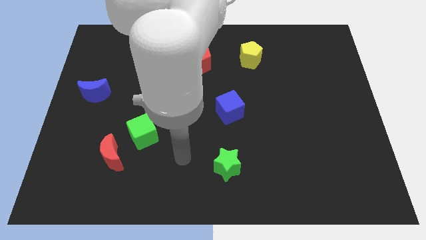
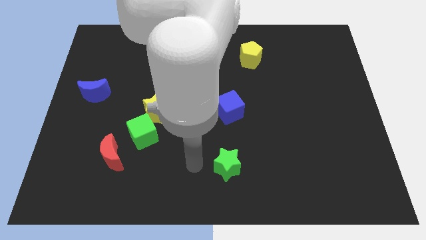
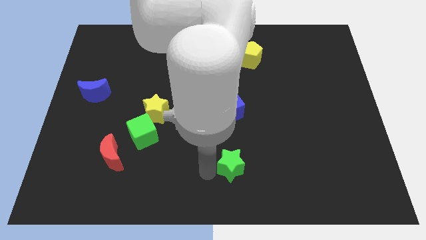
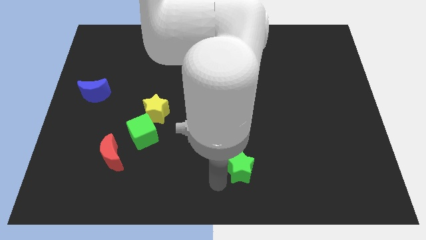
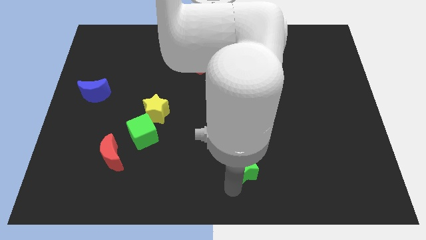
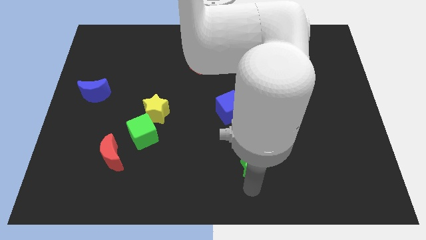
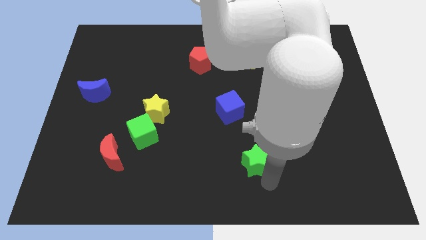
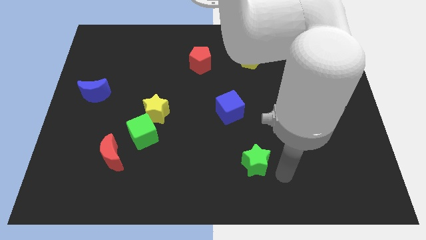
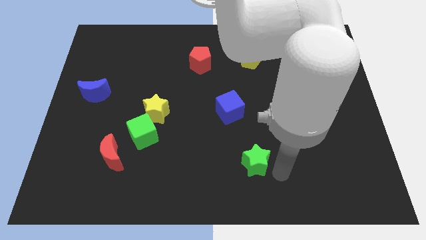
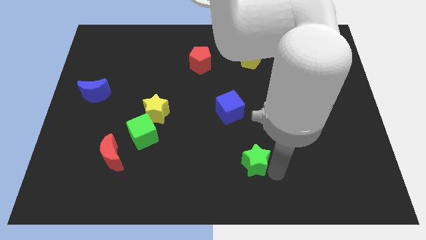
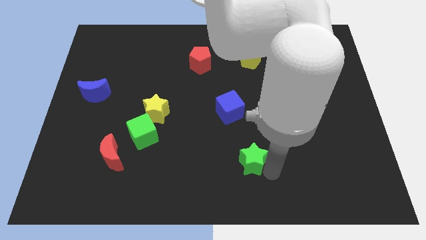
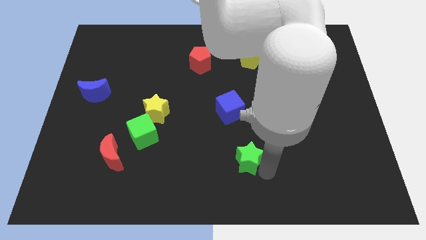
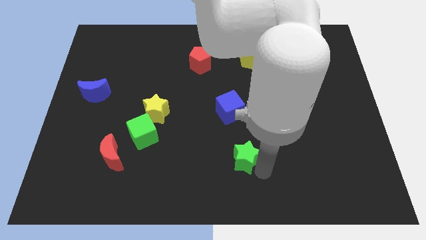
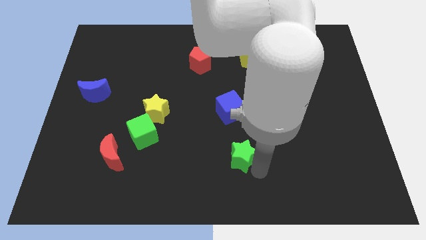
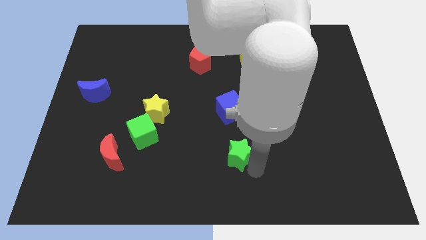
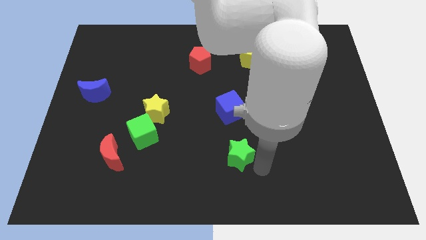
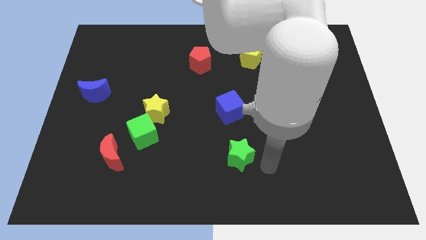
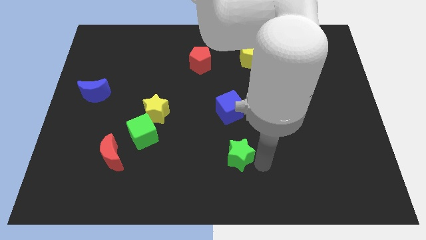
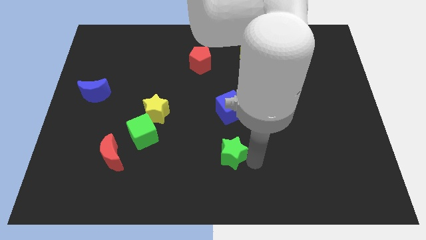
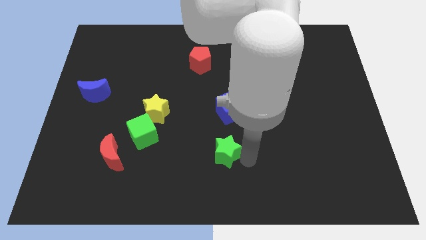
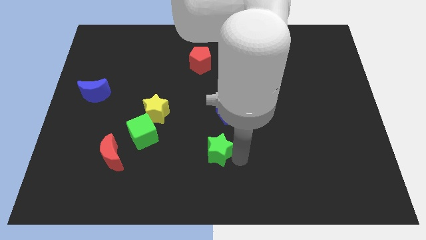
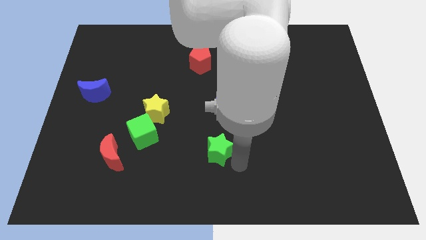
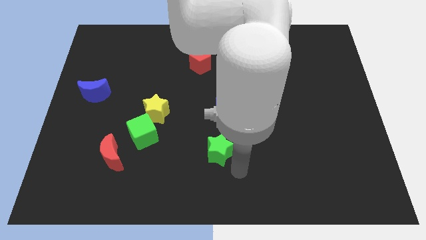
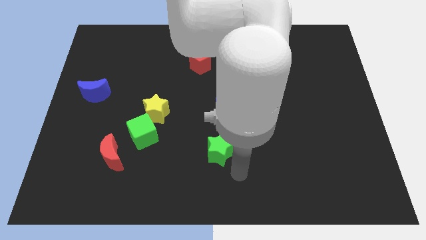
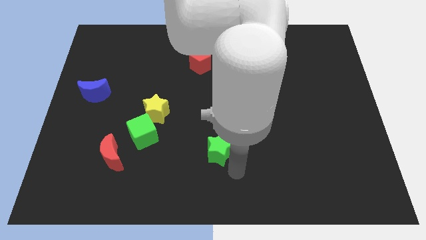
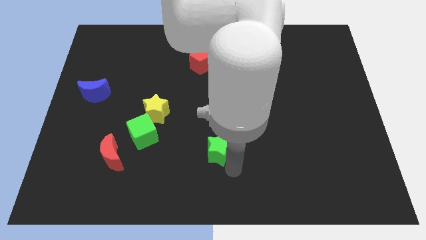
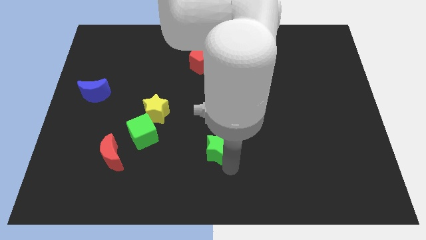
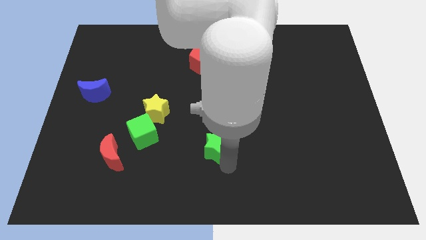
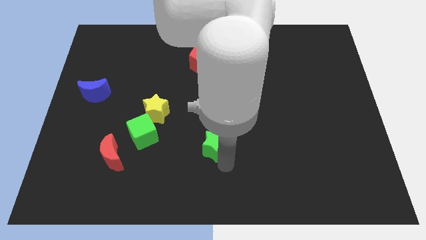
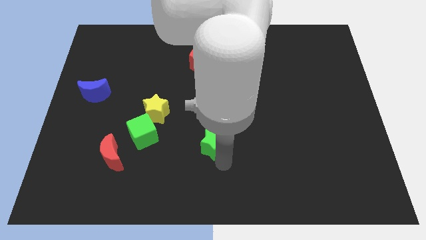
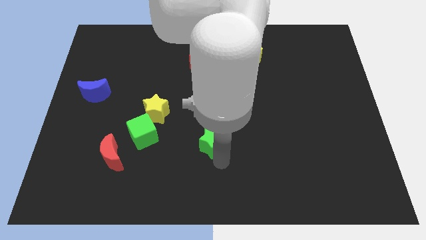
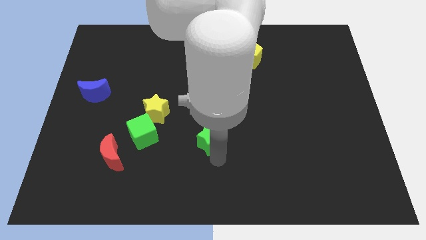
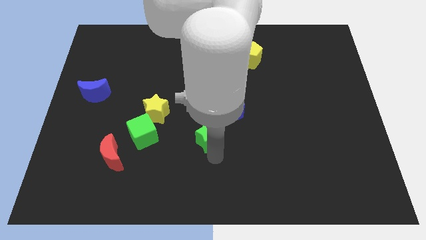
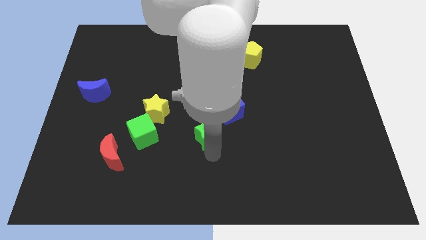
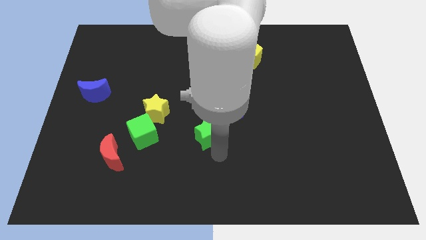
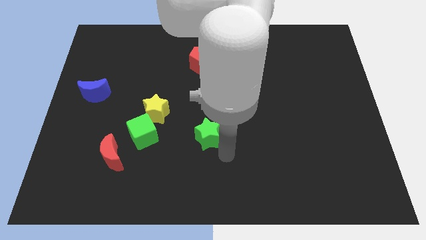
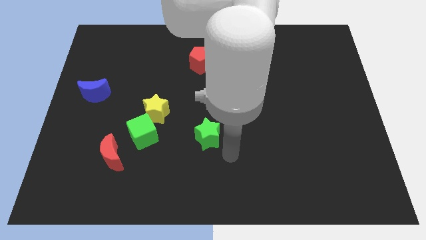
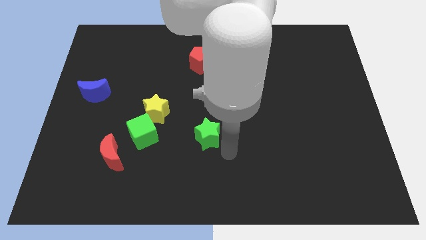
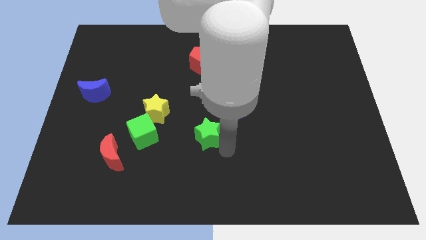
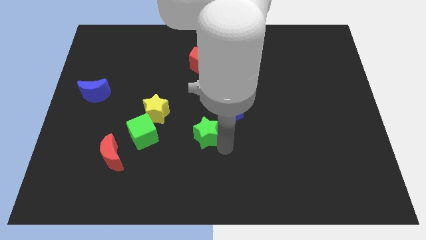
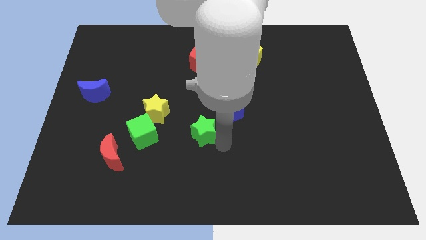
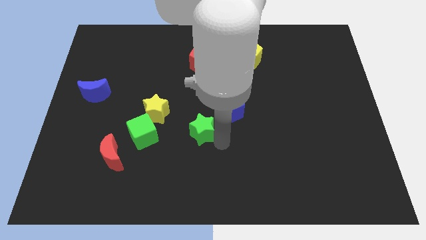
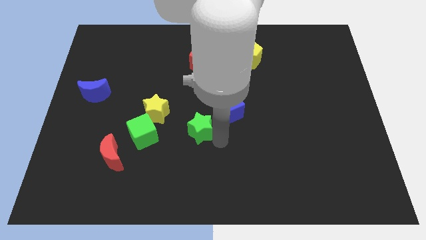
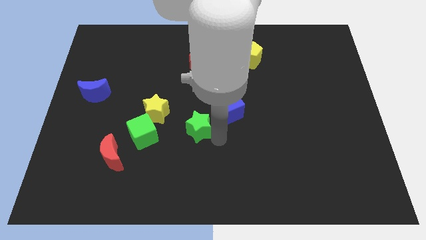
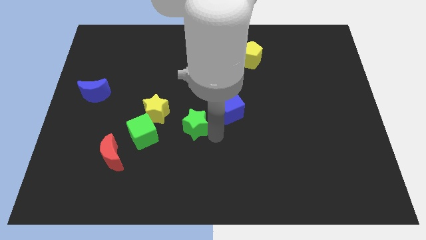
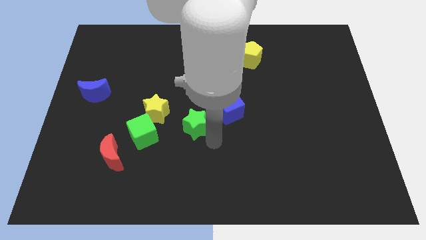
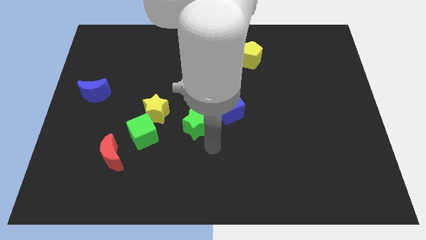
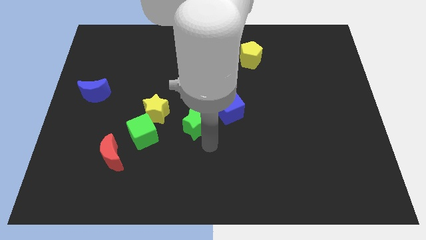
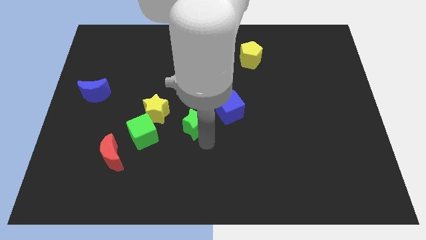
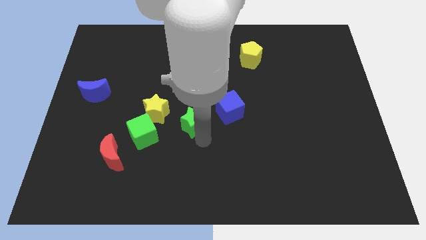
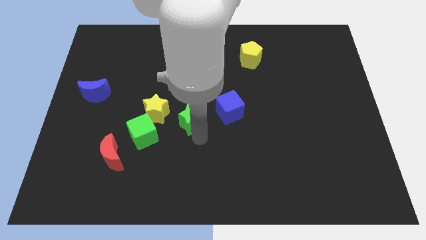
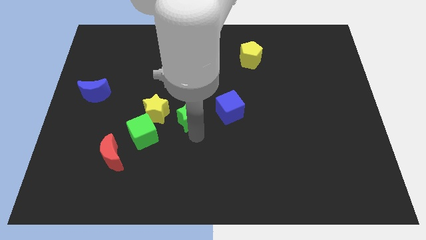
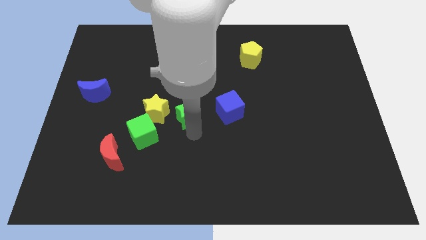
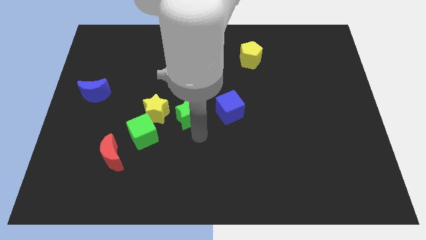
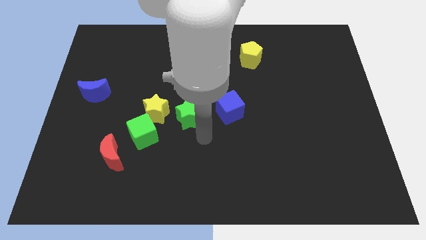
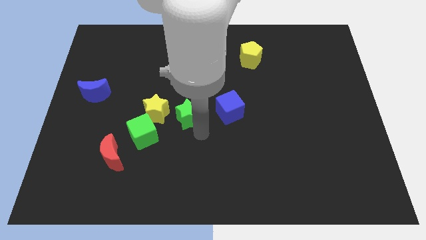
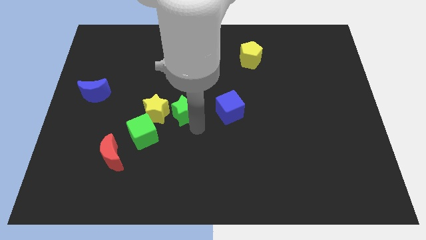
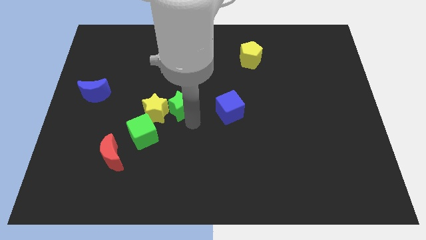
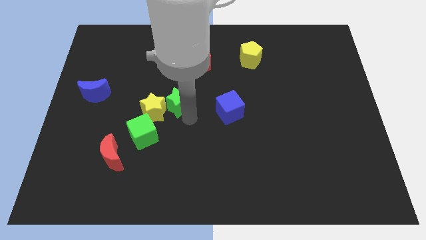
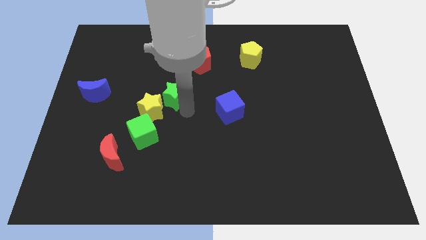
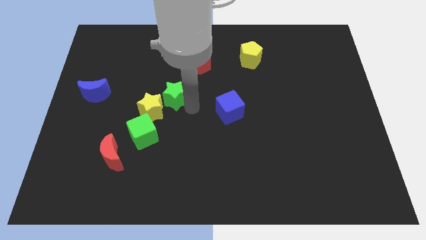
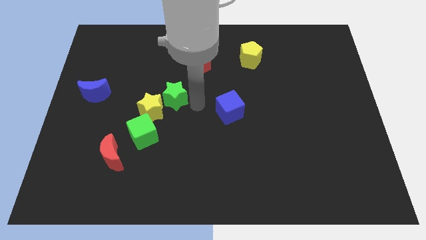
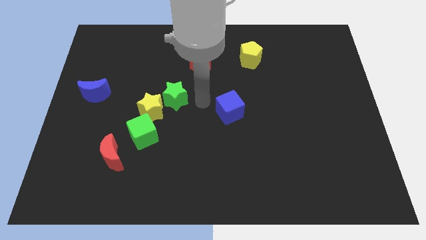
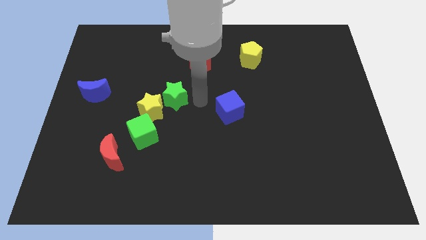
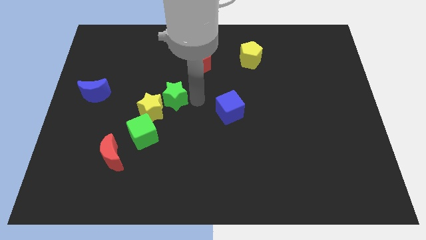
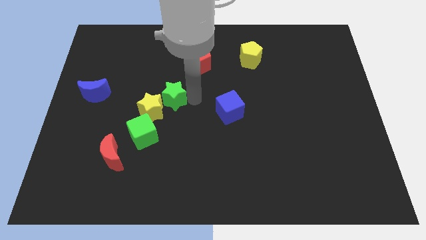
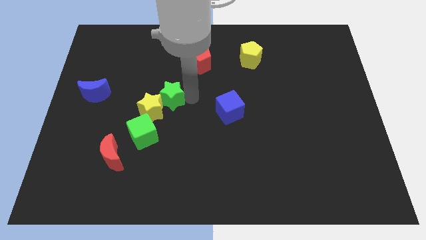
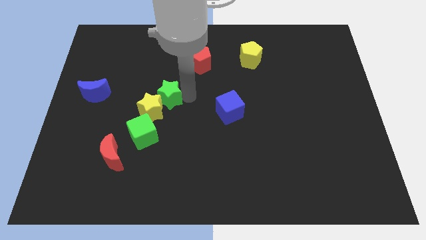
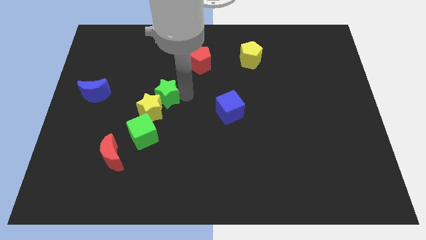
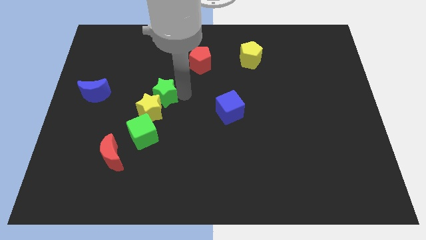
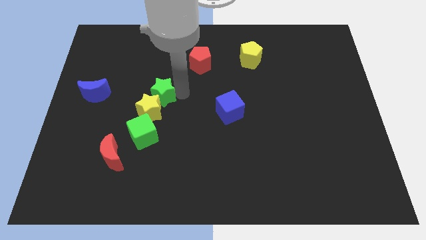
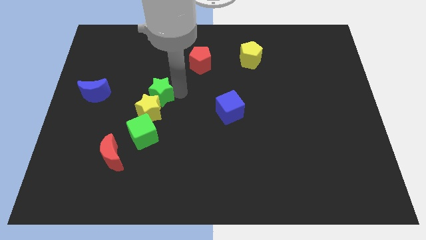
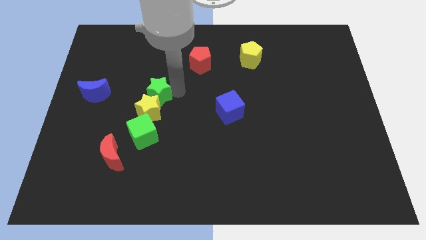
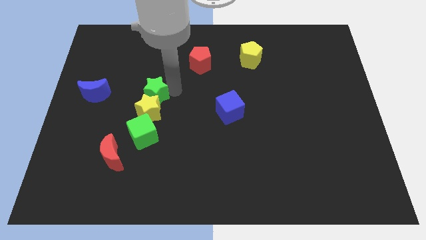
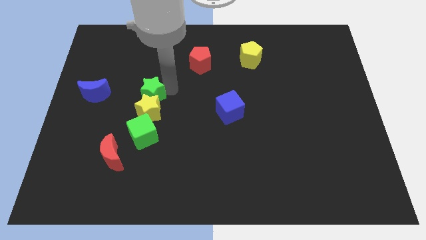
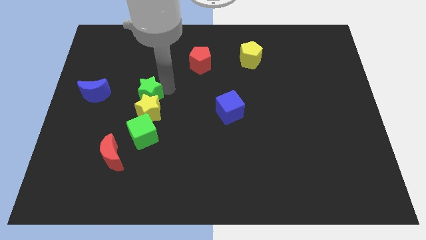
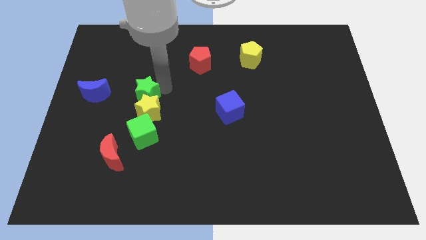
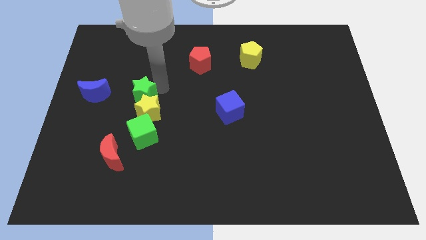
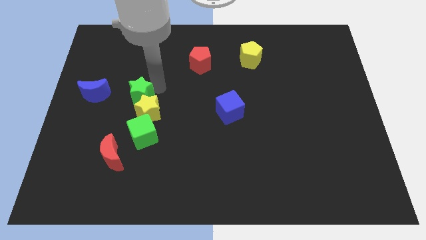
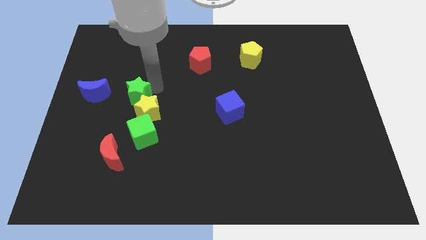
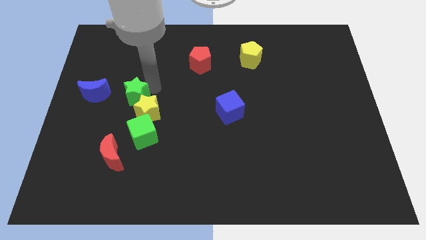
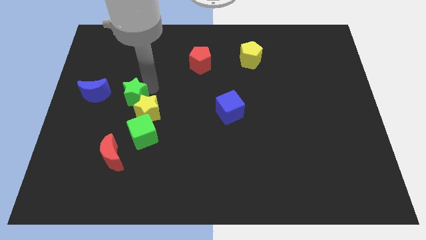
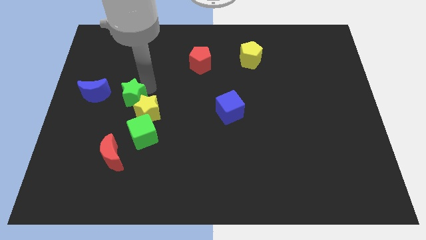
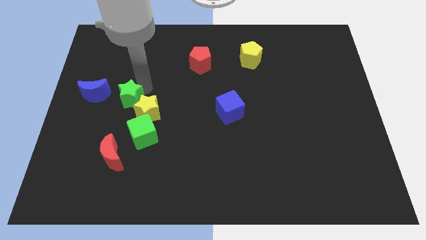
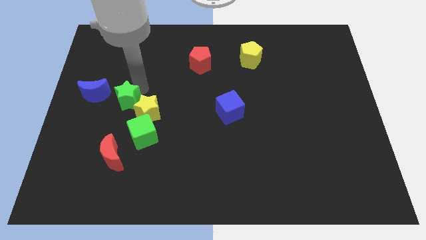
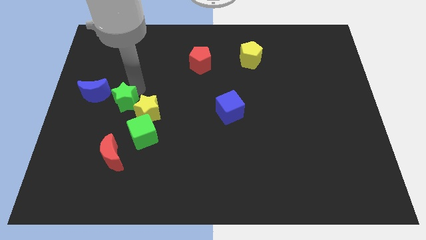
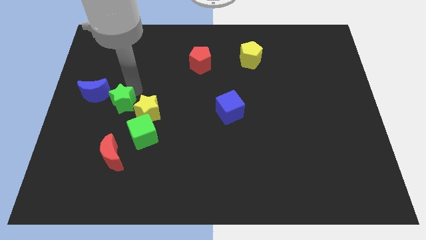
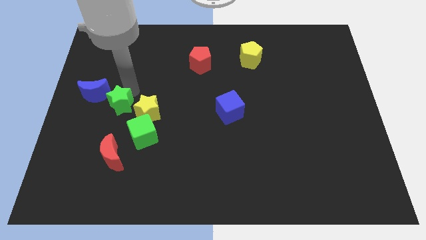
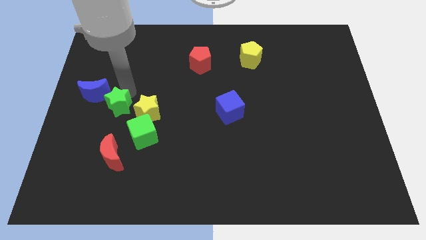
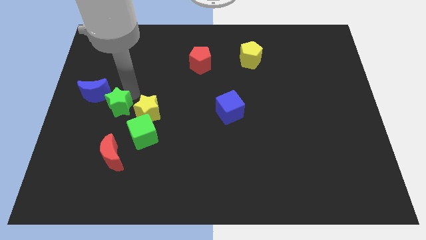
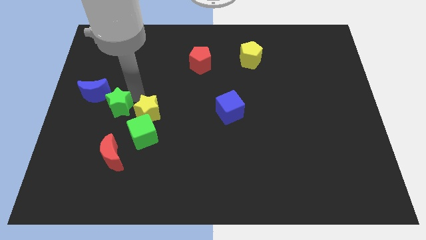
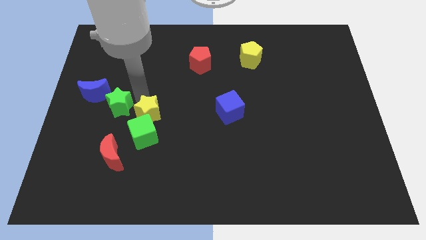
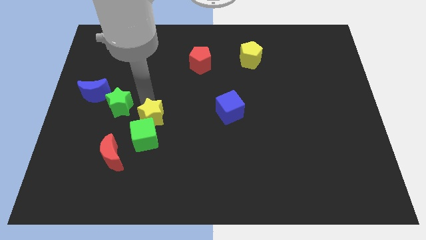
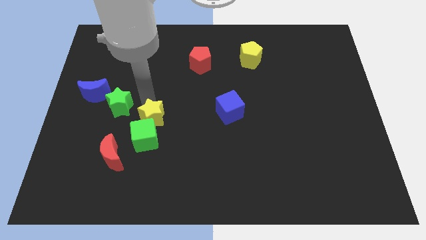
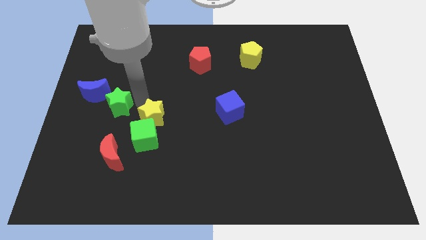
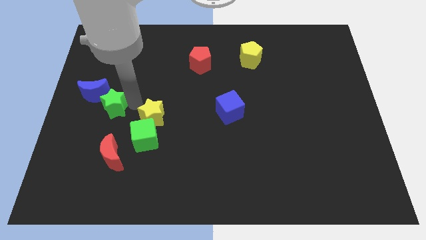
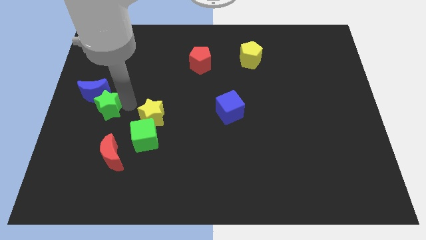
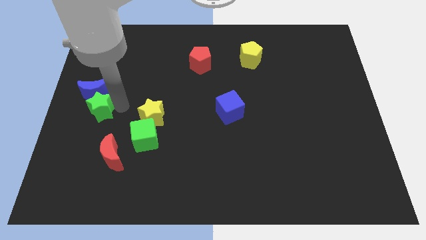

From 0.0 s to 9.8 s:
push the green star to the center left
